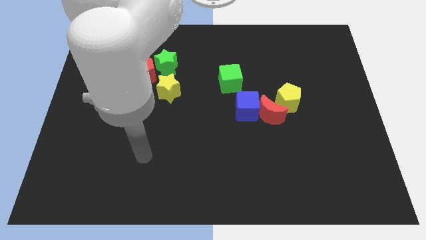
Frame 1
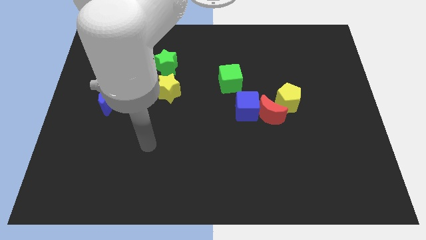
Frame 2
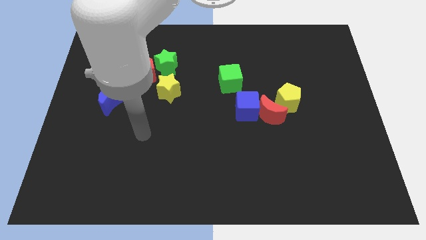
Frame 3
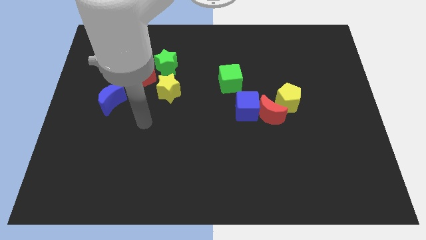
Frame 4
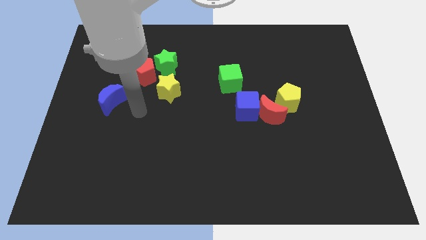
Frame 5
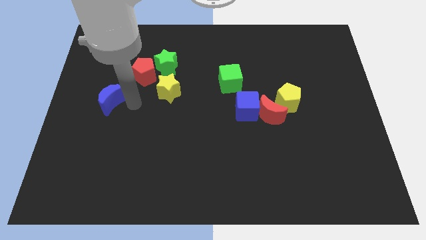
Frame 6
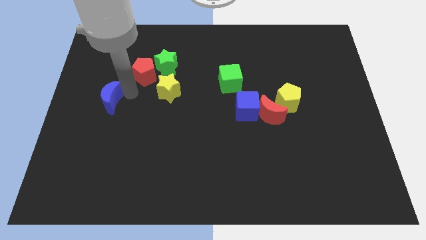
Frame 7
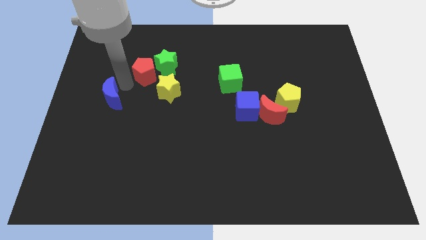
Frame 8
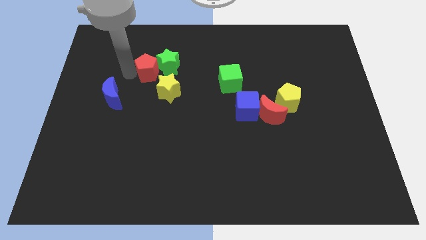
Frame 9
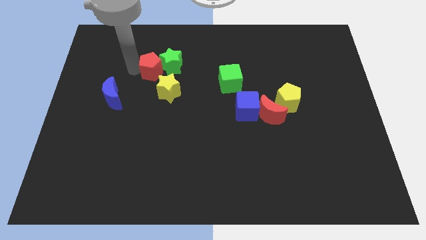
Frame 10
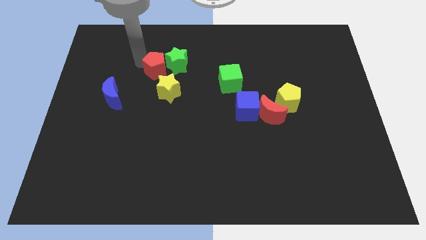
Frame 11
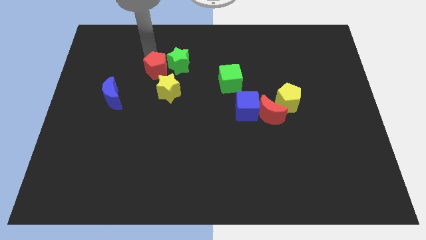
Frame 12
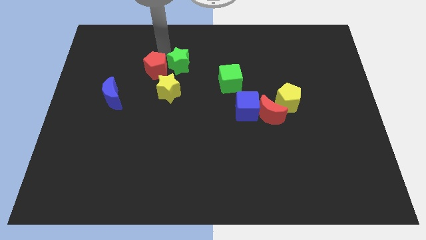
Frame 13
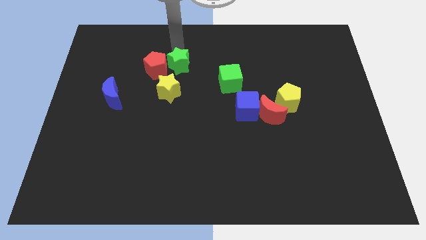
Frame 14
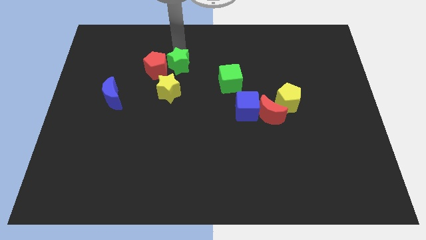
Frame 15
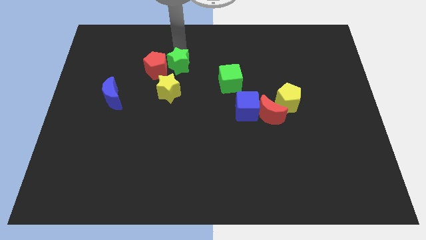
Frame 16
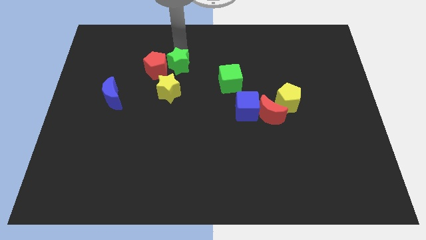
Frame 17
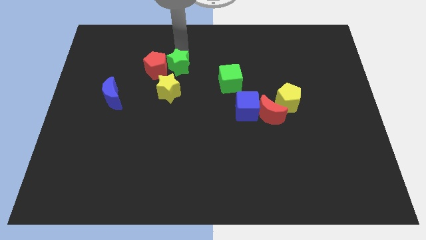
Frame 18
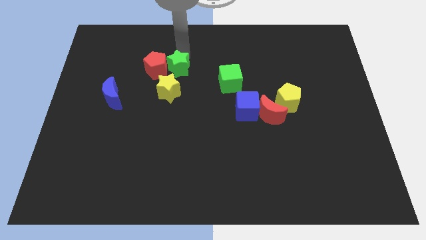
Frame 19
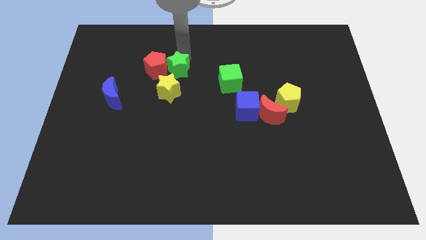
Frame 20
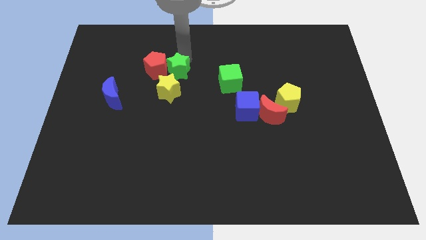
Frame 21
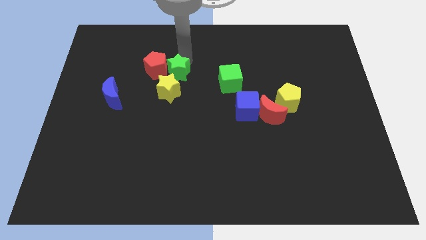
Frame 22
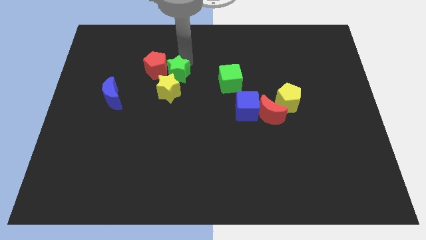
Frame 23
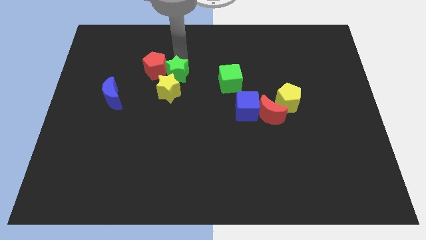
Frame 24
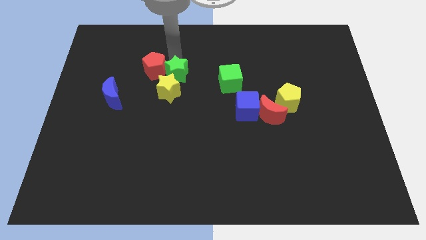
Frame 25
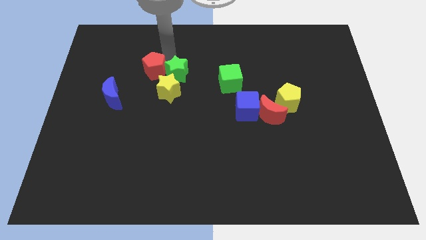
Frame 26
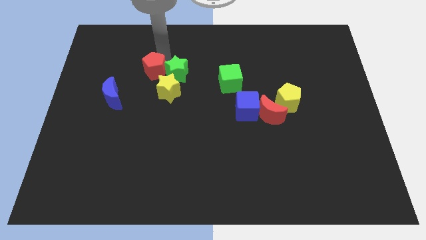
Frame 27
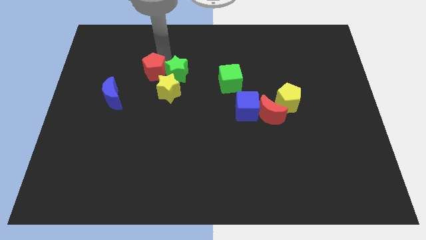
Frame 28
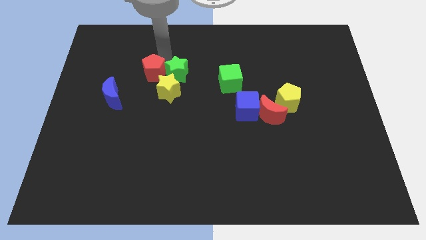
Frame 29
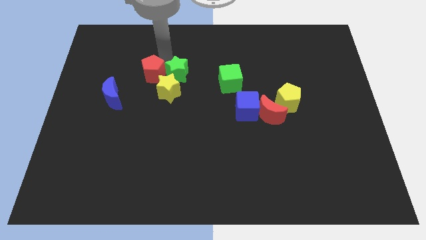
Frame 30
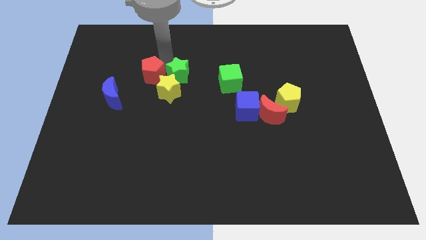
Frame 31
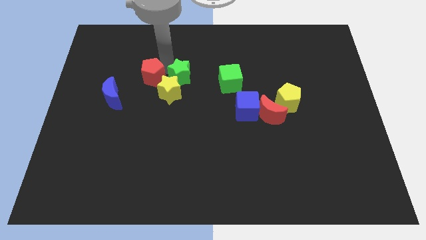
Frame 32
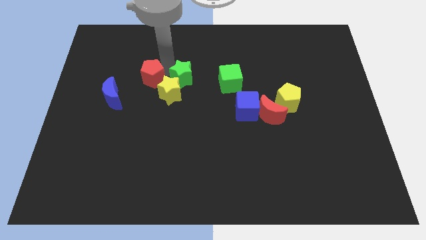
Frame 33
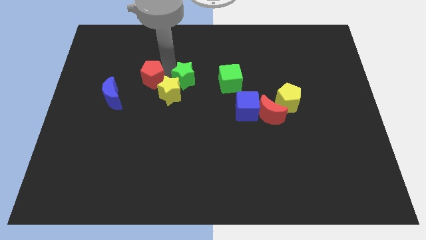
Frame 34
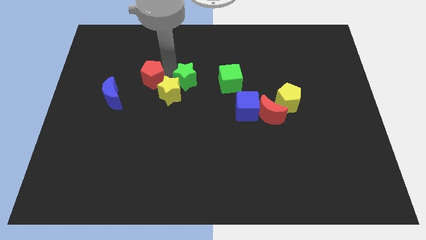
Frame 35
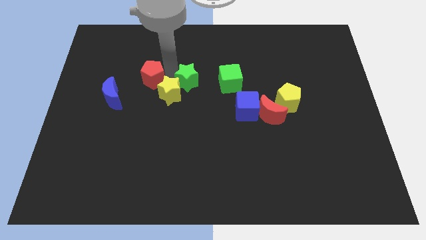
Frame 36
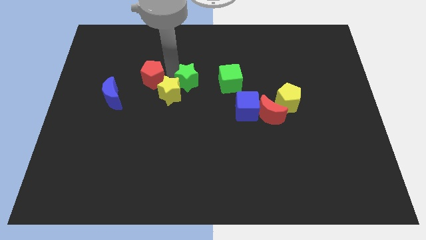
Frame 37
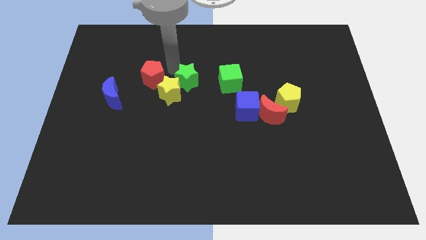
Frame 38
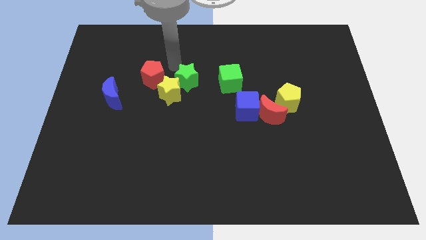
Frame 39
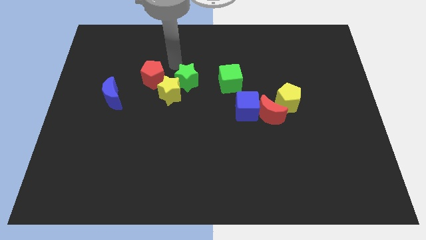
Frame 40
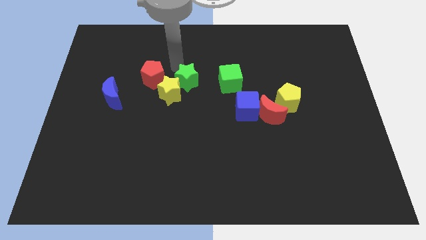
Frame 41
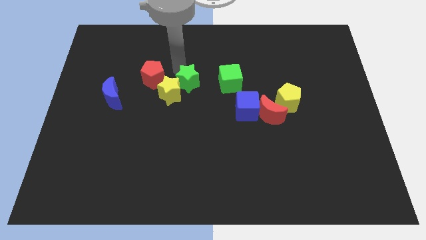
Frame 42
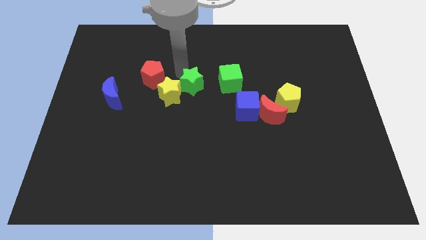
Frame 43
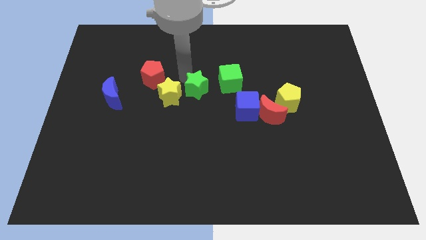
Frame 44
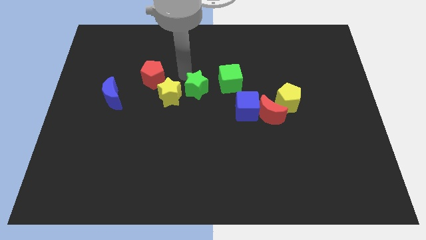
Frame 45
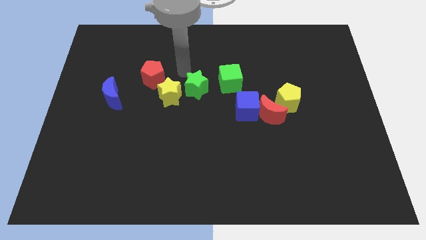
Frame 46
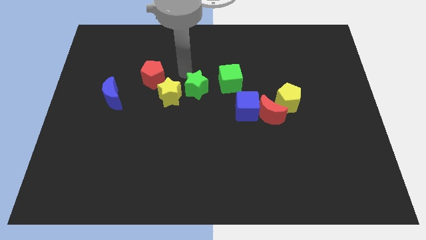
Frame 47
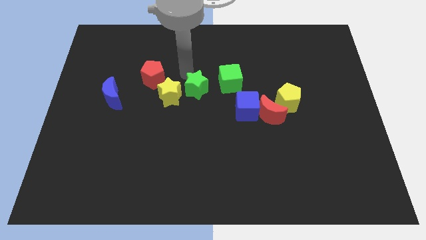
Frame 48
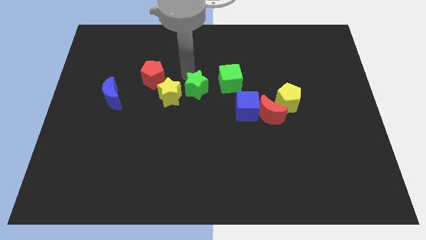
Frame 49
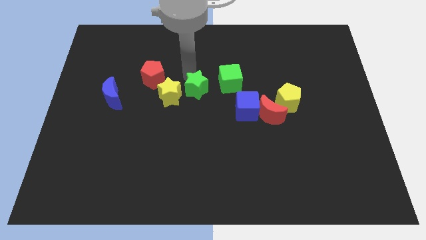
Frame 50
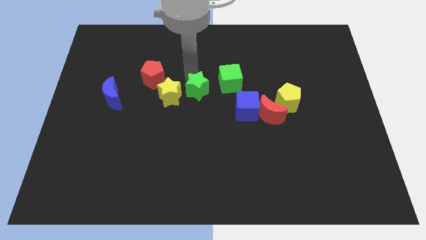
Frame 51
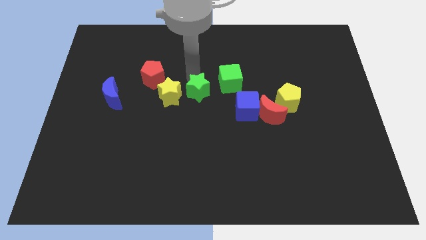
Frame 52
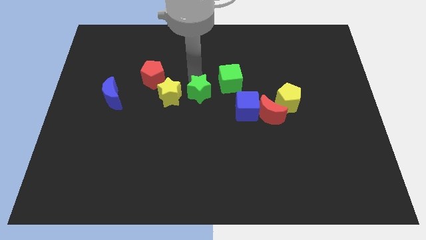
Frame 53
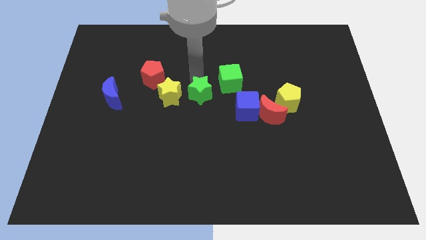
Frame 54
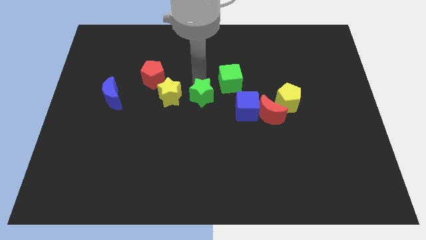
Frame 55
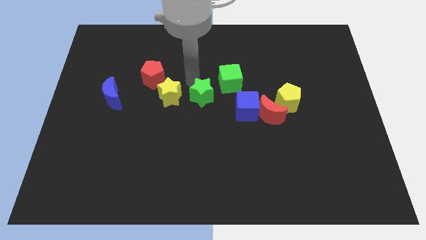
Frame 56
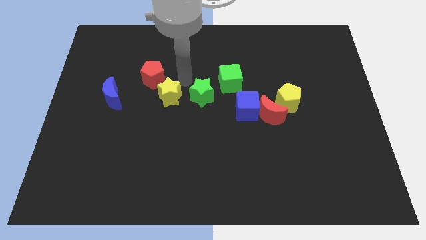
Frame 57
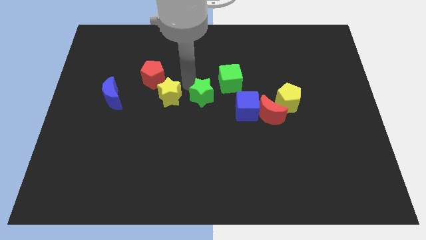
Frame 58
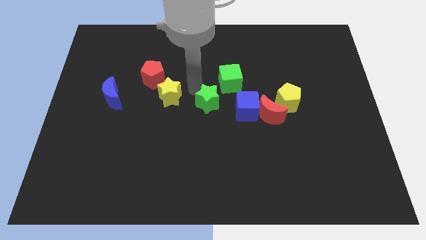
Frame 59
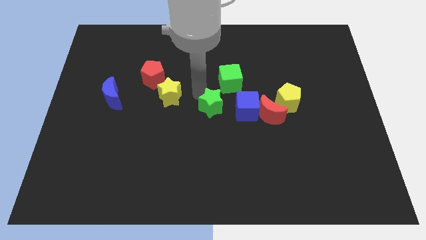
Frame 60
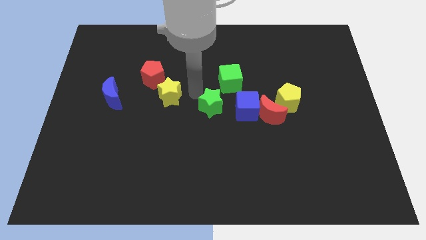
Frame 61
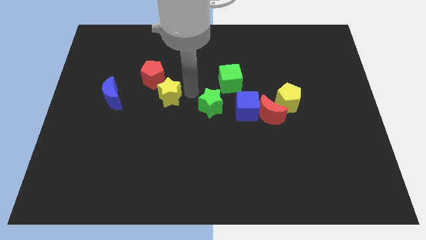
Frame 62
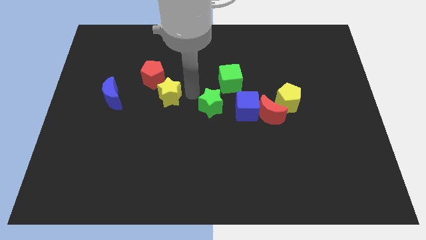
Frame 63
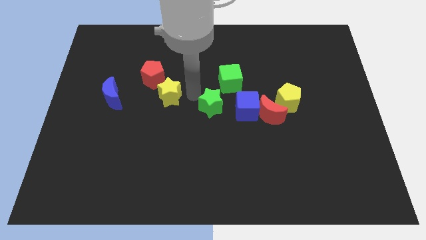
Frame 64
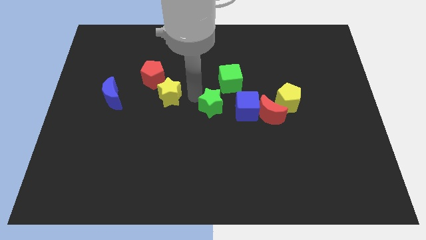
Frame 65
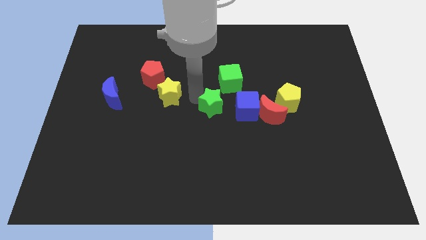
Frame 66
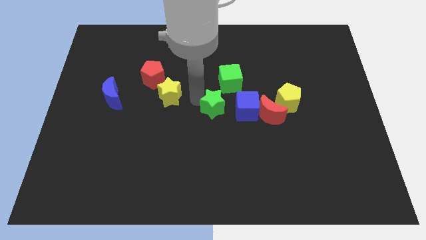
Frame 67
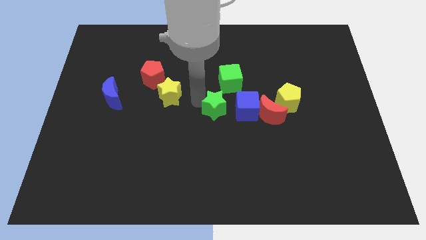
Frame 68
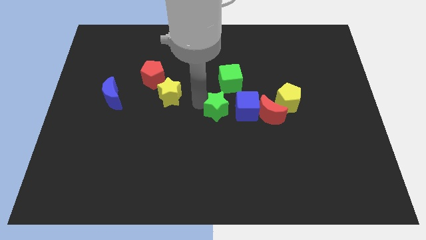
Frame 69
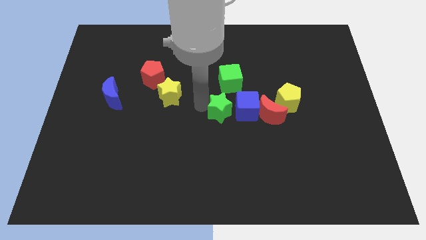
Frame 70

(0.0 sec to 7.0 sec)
push the green star down and then right

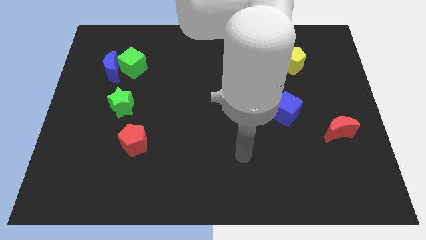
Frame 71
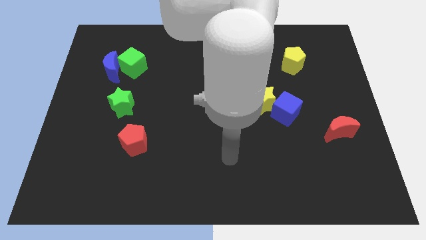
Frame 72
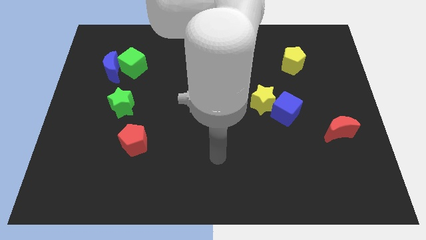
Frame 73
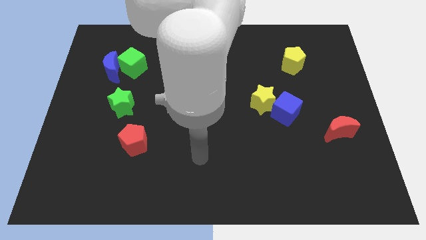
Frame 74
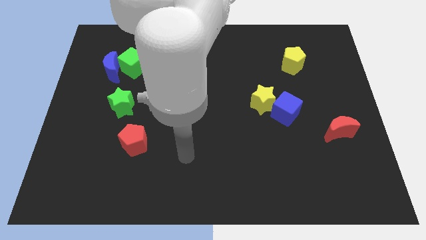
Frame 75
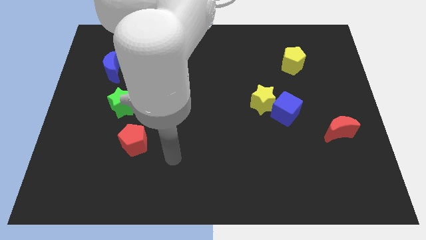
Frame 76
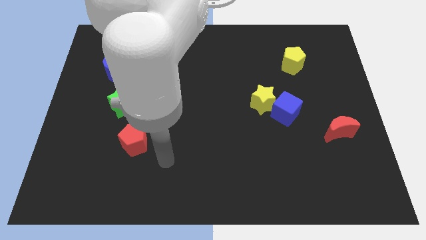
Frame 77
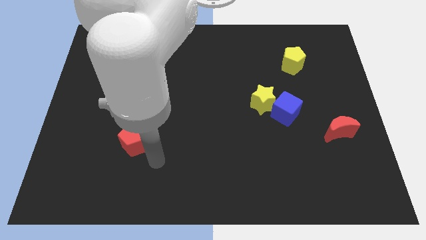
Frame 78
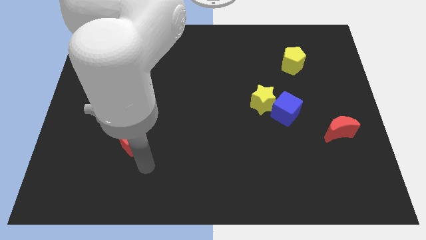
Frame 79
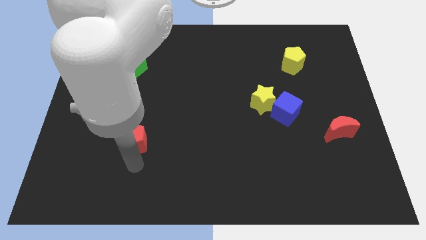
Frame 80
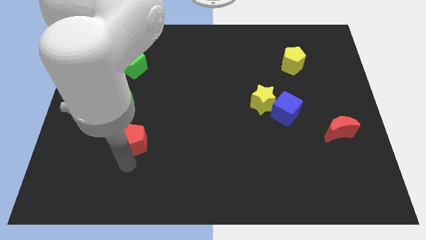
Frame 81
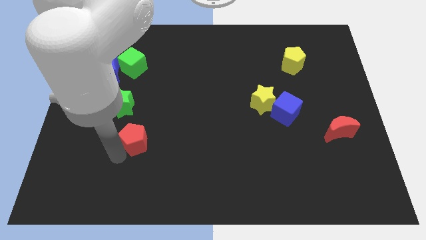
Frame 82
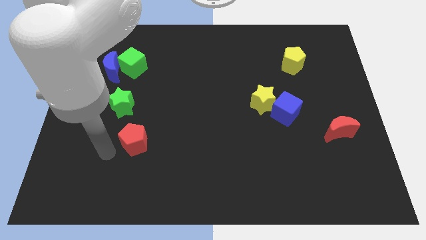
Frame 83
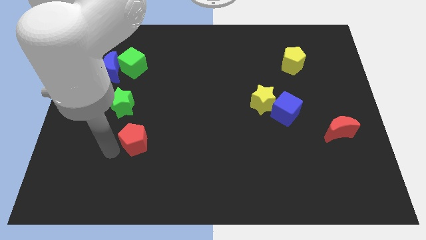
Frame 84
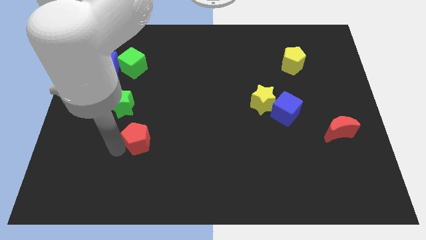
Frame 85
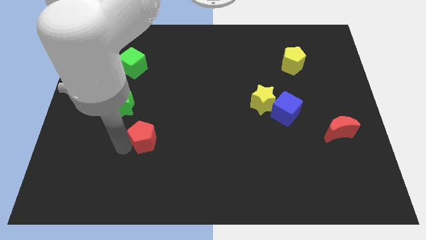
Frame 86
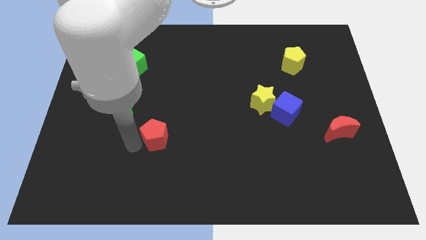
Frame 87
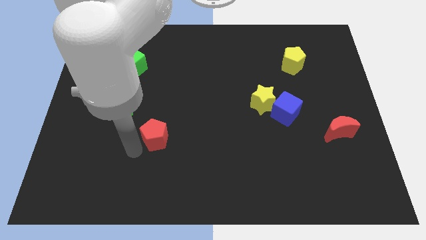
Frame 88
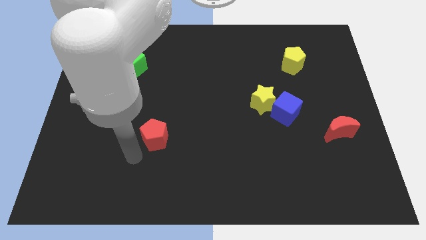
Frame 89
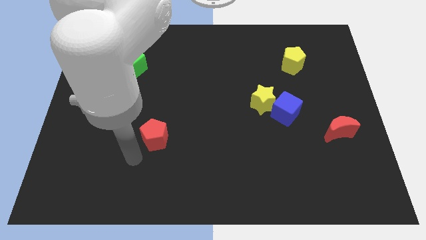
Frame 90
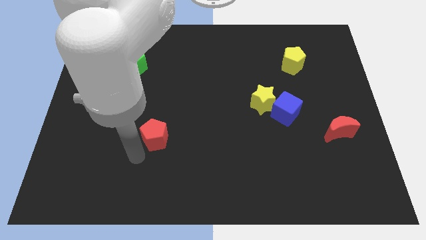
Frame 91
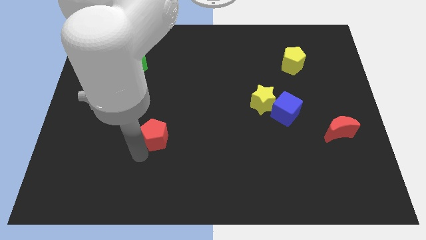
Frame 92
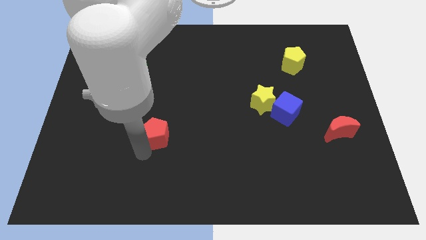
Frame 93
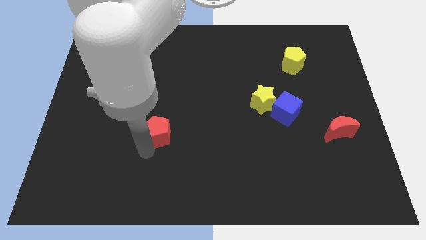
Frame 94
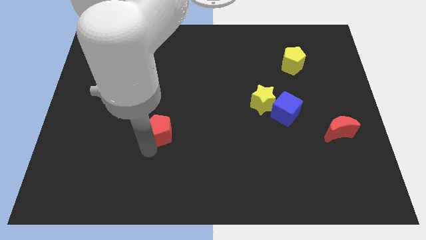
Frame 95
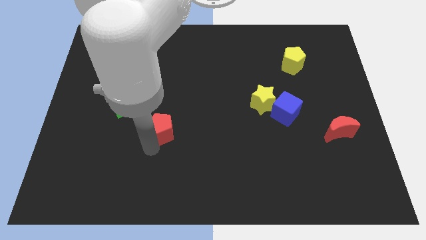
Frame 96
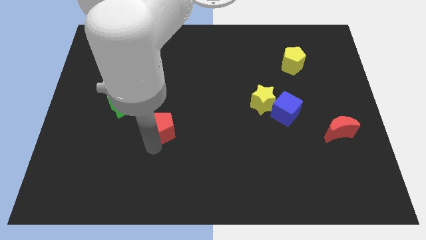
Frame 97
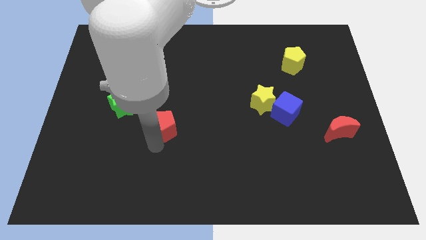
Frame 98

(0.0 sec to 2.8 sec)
move the red pentagon upwards and right diagonally a little bit
